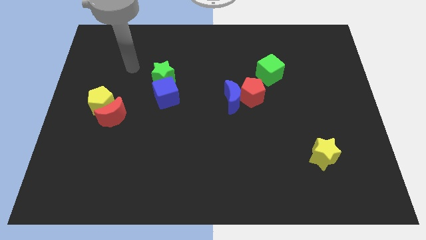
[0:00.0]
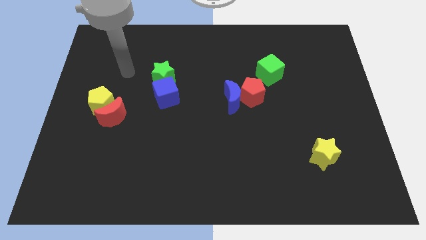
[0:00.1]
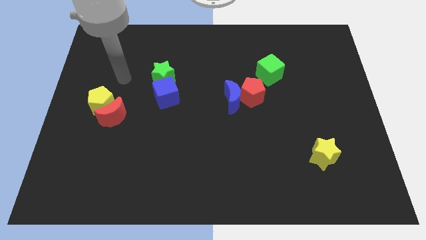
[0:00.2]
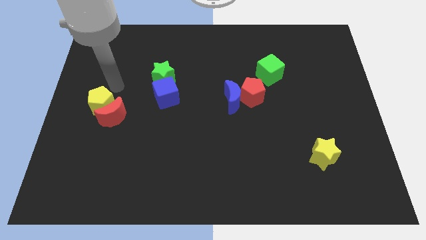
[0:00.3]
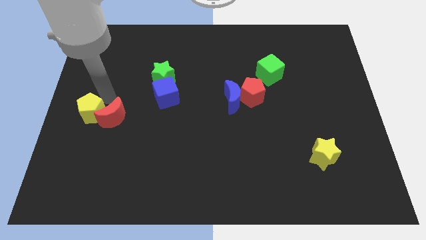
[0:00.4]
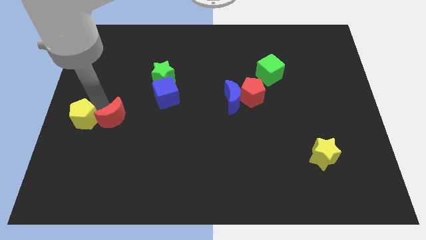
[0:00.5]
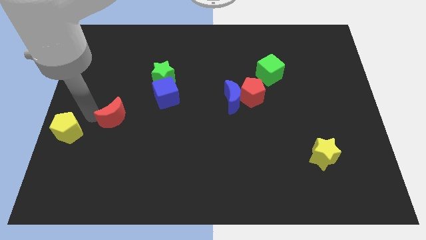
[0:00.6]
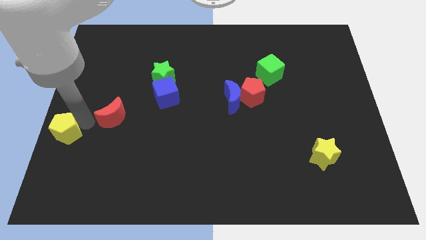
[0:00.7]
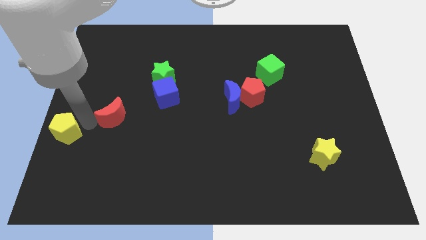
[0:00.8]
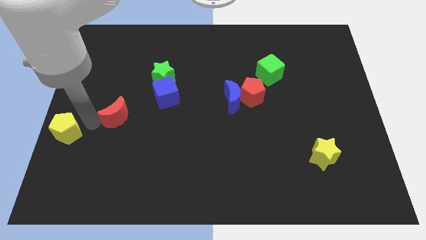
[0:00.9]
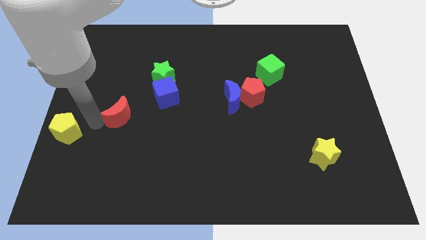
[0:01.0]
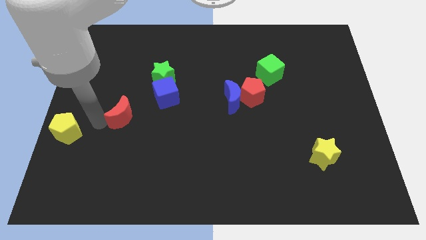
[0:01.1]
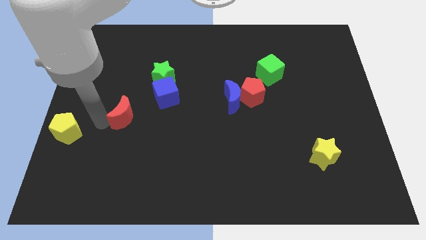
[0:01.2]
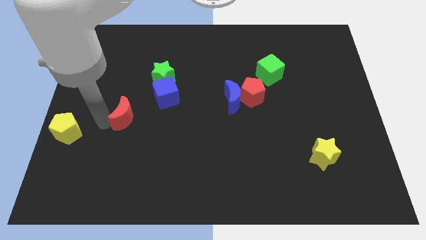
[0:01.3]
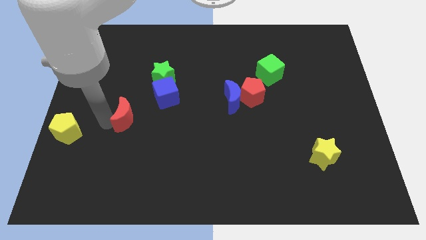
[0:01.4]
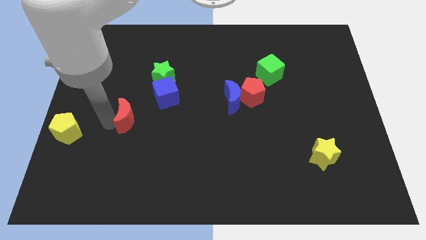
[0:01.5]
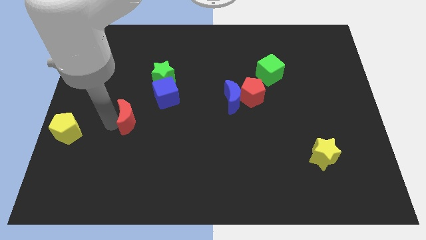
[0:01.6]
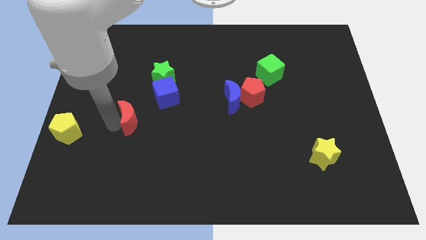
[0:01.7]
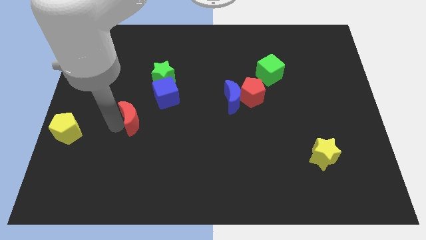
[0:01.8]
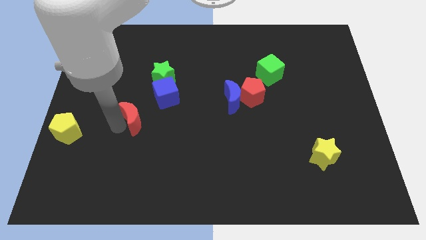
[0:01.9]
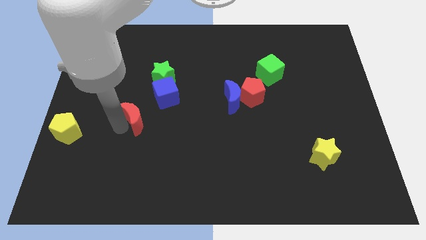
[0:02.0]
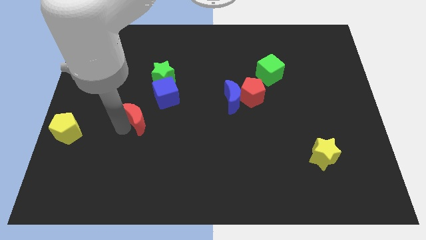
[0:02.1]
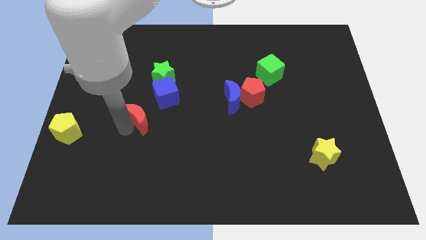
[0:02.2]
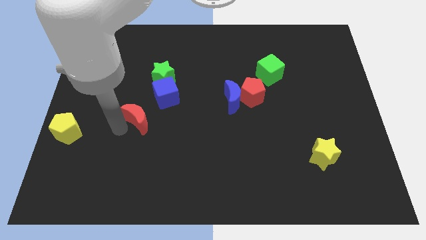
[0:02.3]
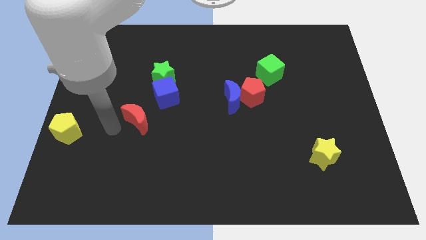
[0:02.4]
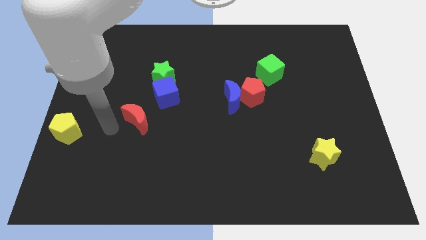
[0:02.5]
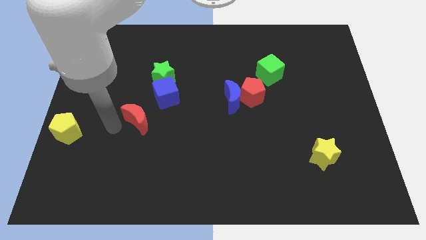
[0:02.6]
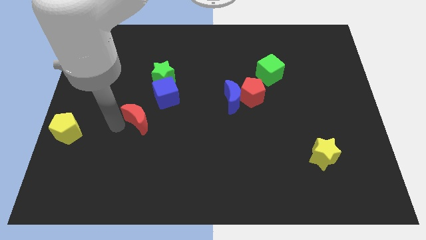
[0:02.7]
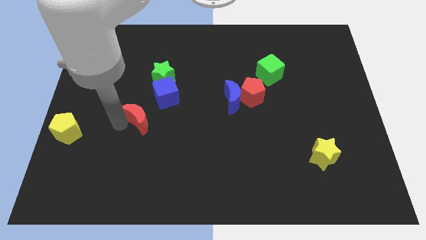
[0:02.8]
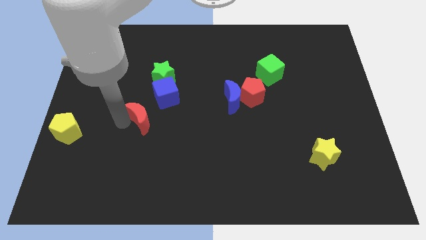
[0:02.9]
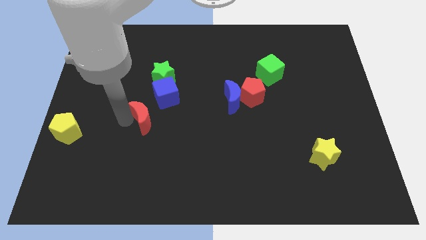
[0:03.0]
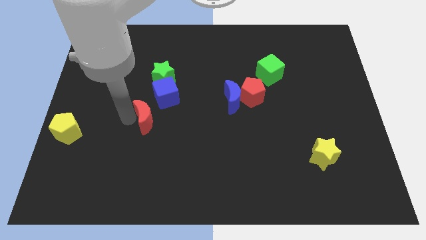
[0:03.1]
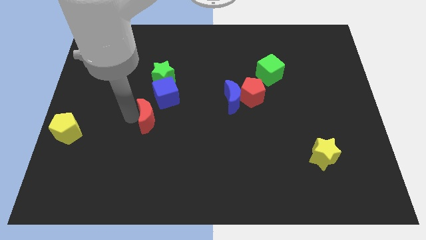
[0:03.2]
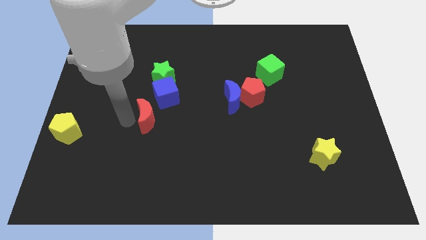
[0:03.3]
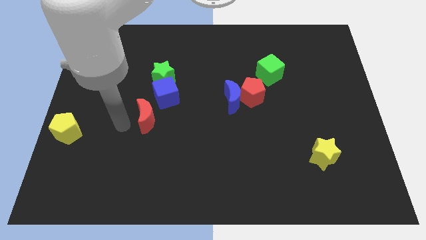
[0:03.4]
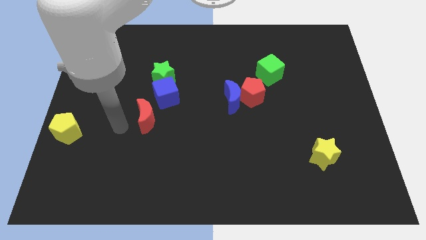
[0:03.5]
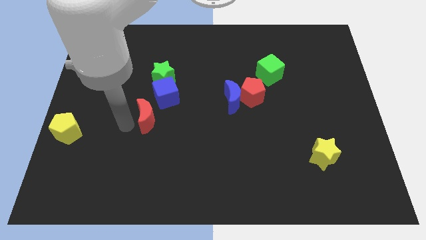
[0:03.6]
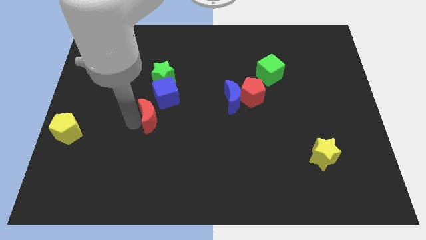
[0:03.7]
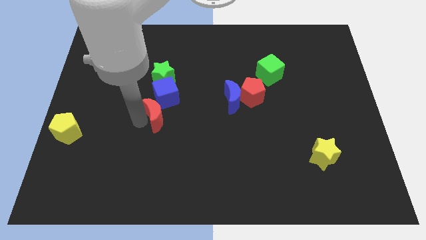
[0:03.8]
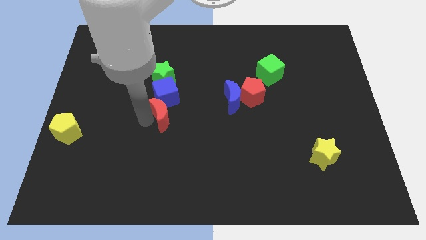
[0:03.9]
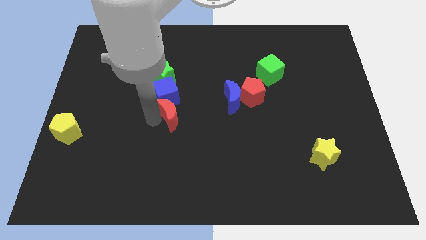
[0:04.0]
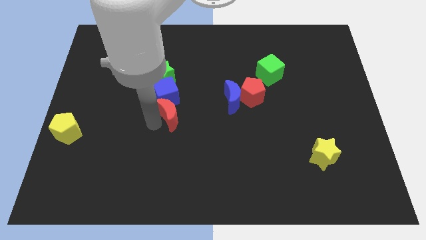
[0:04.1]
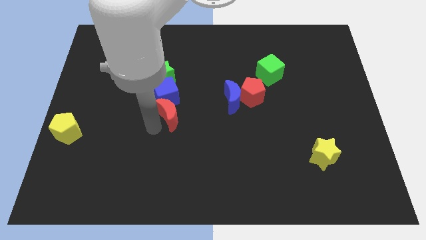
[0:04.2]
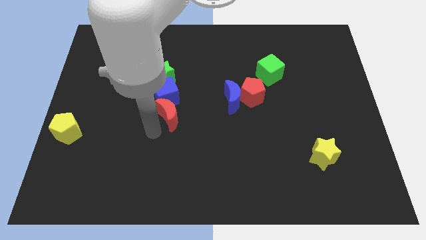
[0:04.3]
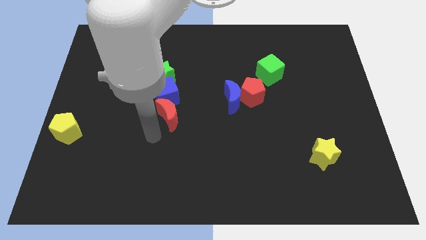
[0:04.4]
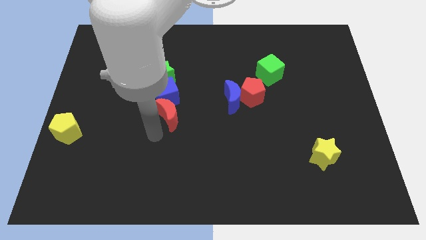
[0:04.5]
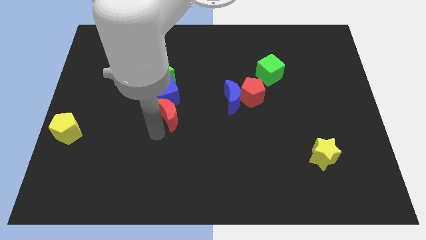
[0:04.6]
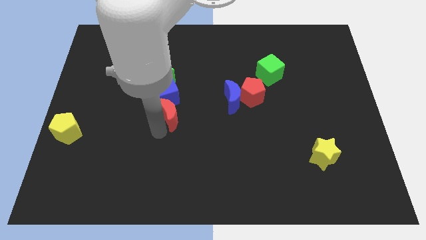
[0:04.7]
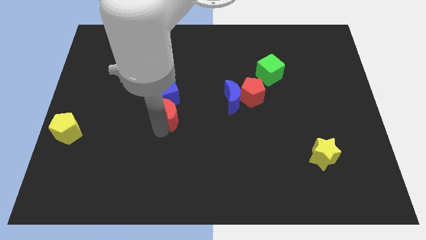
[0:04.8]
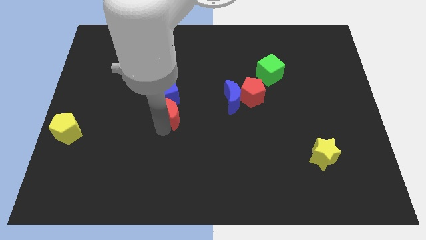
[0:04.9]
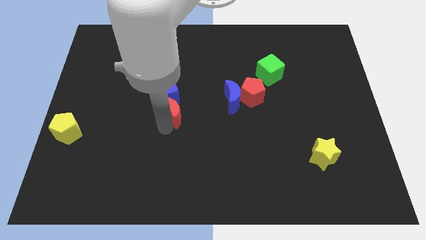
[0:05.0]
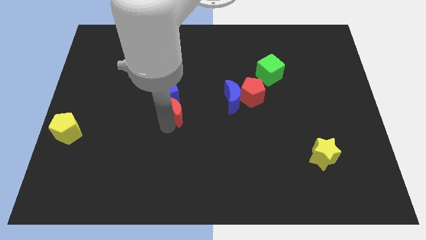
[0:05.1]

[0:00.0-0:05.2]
slightly move the red moon up and then to the right

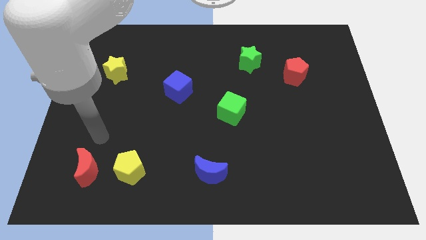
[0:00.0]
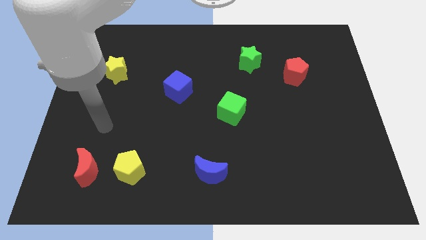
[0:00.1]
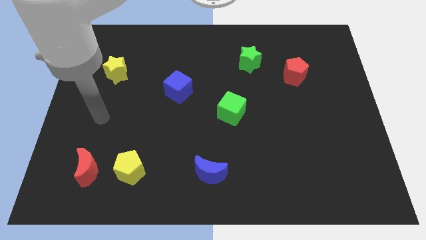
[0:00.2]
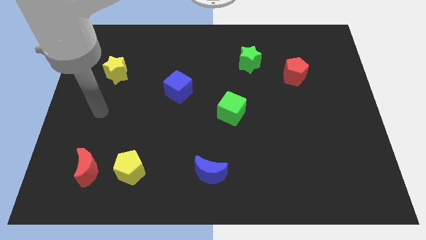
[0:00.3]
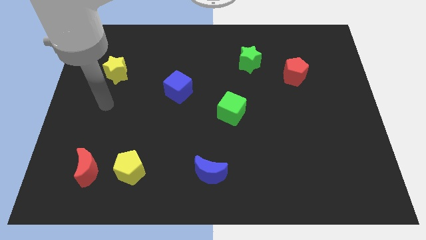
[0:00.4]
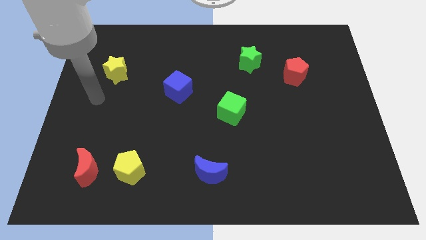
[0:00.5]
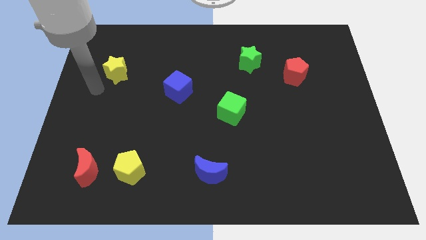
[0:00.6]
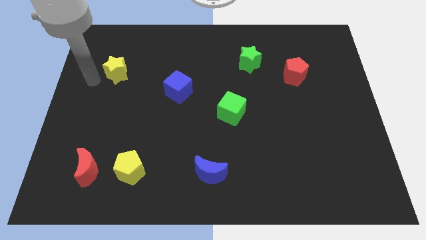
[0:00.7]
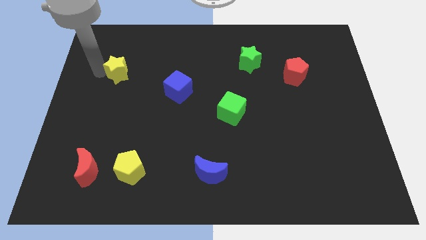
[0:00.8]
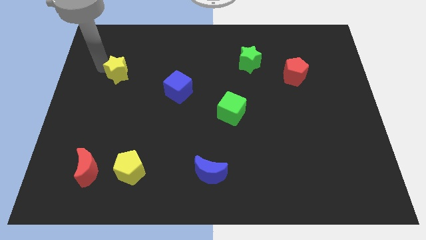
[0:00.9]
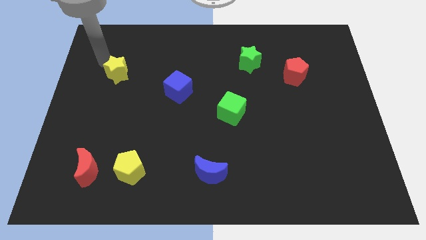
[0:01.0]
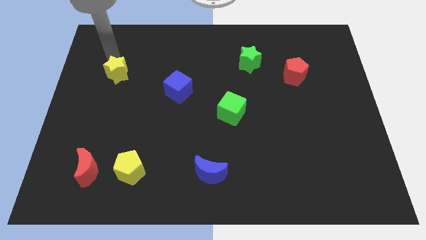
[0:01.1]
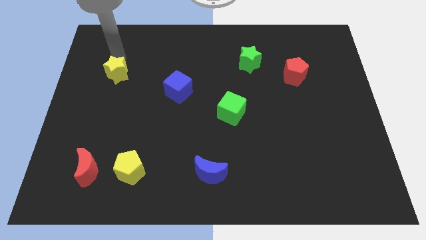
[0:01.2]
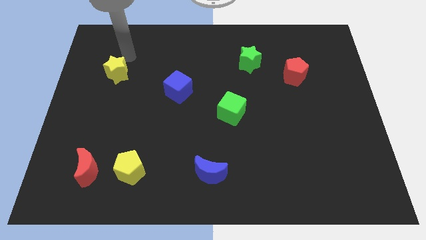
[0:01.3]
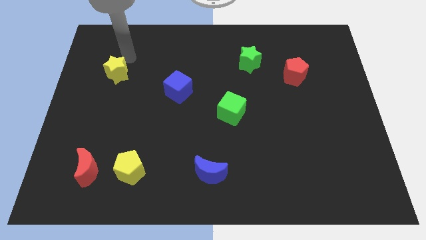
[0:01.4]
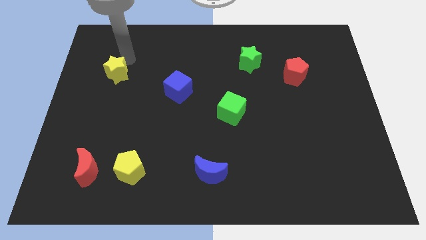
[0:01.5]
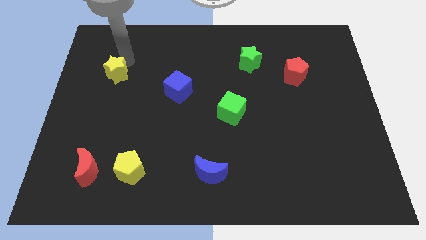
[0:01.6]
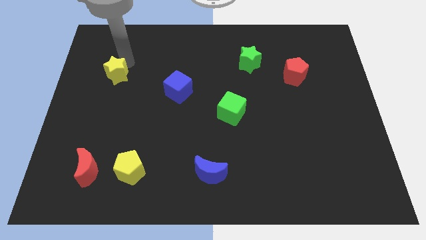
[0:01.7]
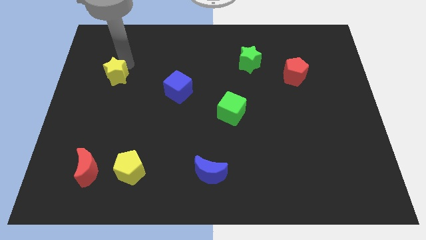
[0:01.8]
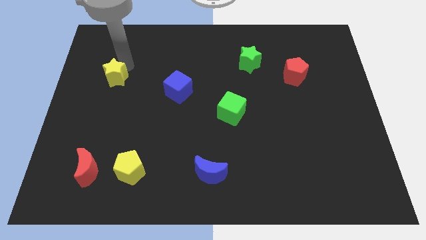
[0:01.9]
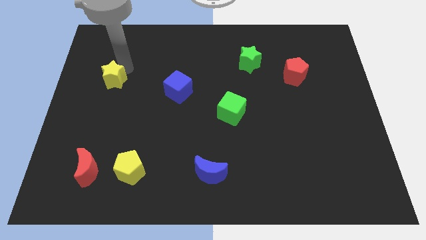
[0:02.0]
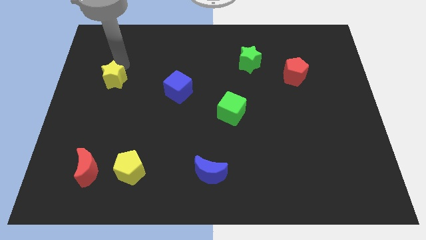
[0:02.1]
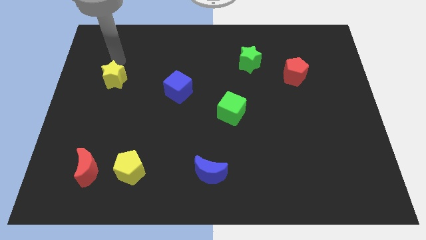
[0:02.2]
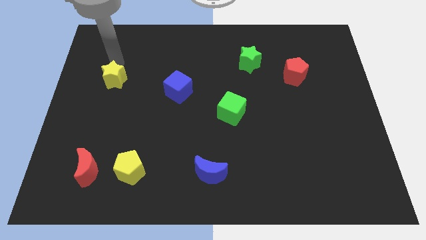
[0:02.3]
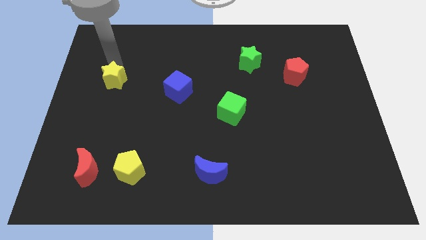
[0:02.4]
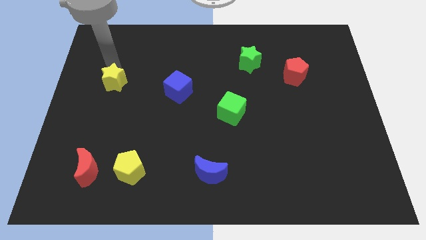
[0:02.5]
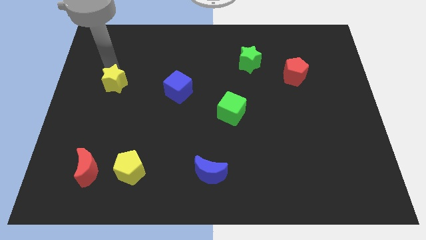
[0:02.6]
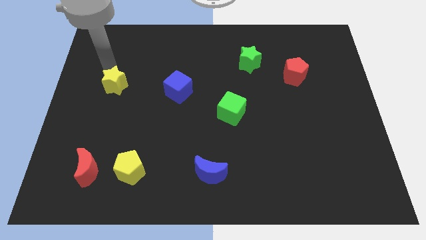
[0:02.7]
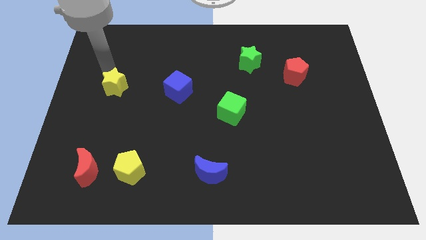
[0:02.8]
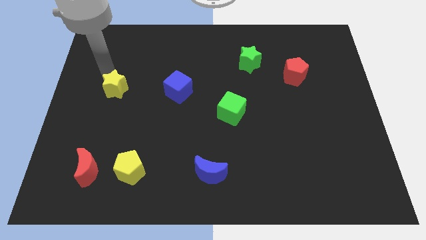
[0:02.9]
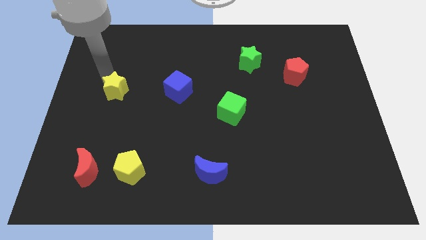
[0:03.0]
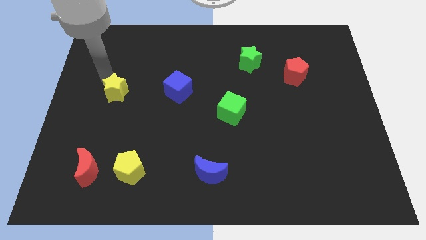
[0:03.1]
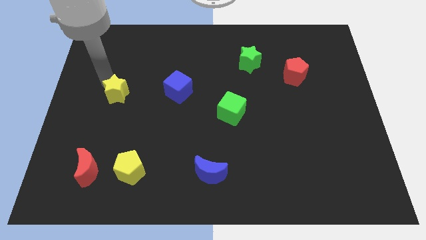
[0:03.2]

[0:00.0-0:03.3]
slide the yellow star slightly down
